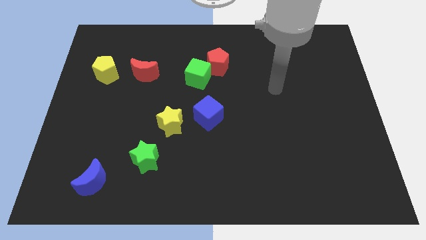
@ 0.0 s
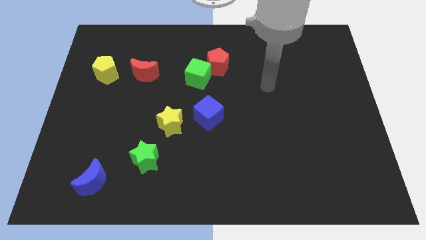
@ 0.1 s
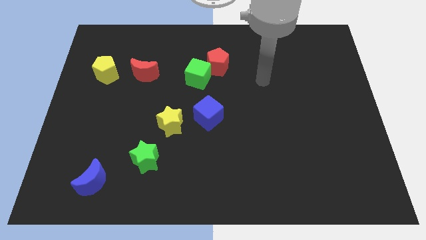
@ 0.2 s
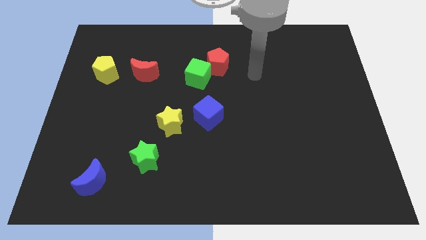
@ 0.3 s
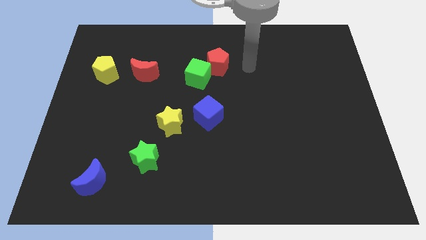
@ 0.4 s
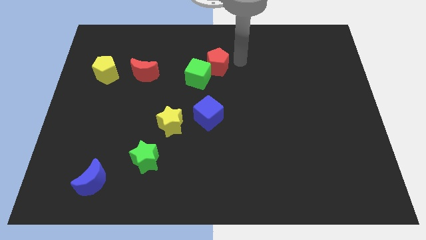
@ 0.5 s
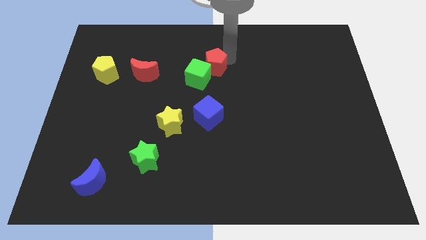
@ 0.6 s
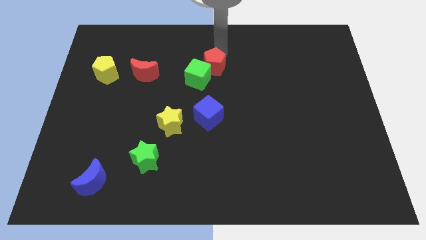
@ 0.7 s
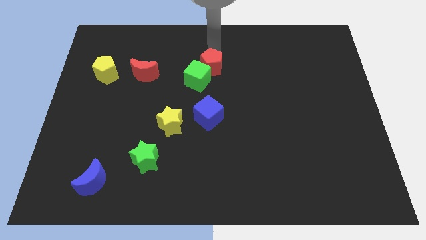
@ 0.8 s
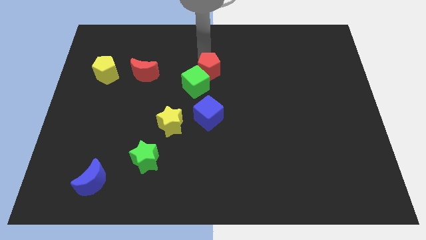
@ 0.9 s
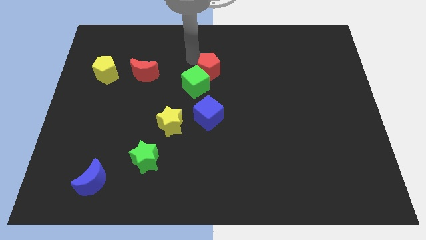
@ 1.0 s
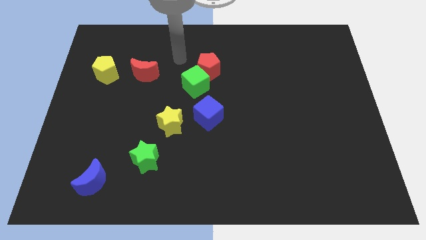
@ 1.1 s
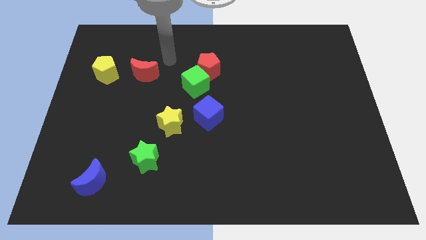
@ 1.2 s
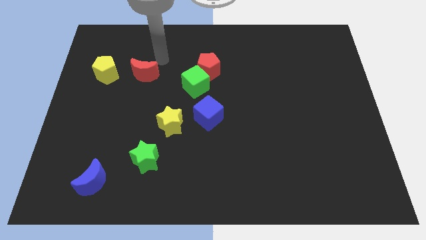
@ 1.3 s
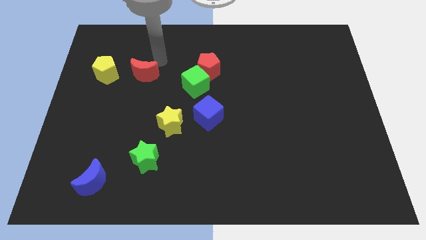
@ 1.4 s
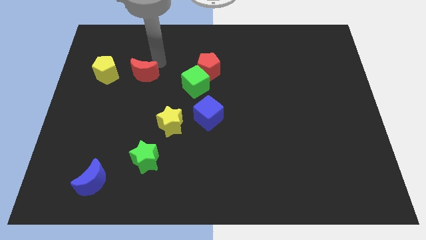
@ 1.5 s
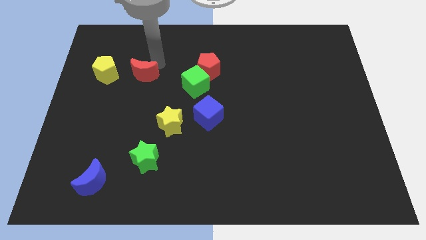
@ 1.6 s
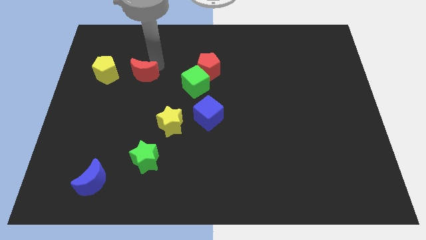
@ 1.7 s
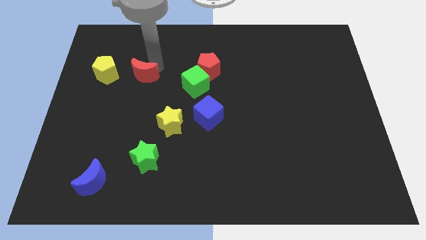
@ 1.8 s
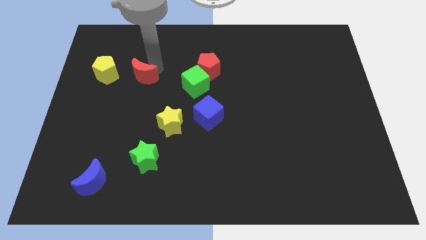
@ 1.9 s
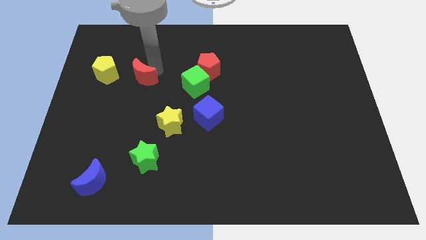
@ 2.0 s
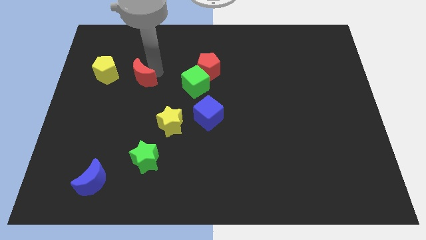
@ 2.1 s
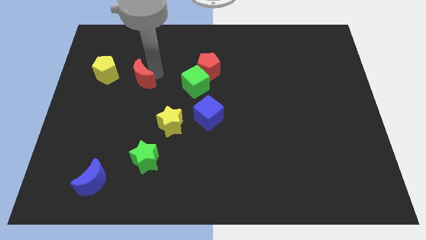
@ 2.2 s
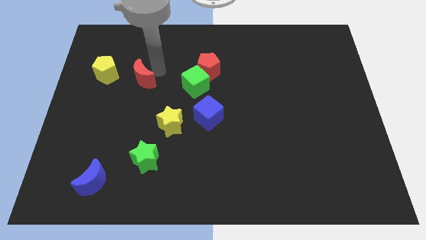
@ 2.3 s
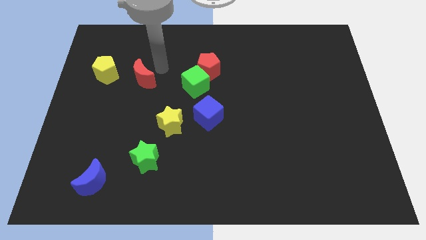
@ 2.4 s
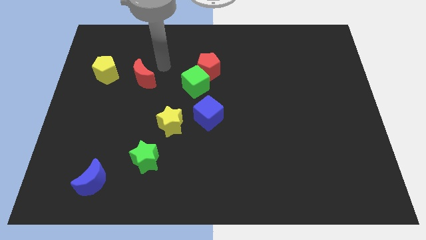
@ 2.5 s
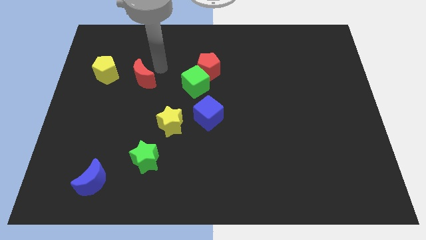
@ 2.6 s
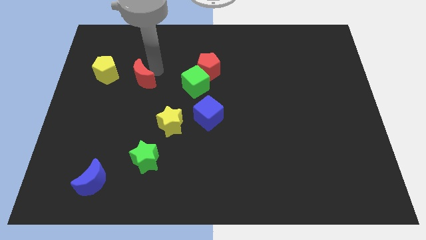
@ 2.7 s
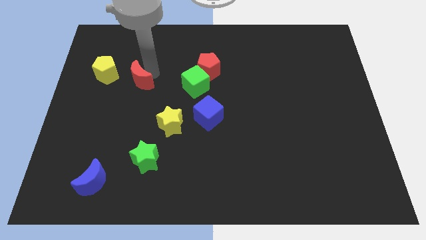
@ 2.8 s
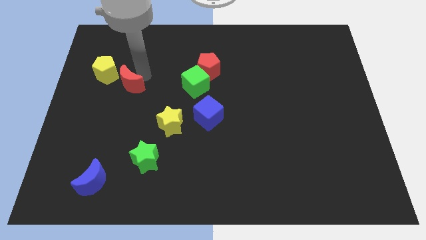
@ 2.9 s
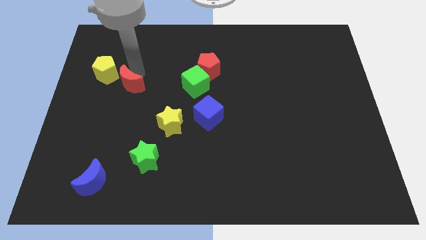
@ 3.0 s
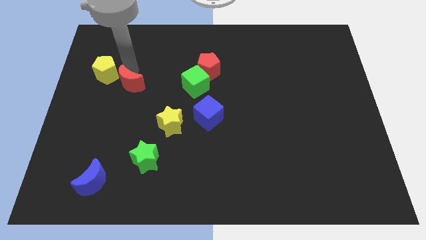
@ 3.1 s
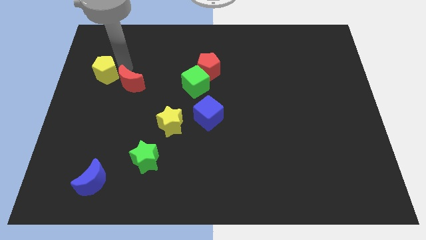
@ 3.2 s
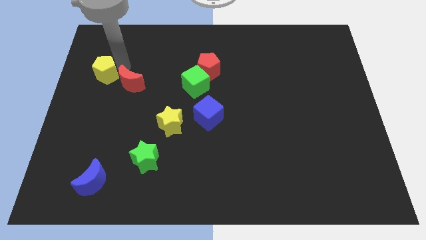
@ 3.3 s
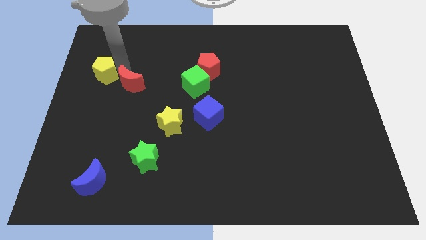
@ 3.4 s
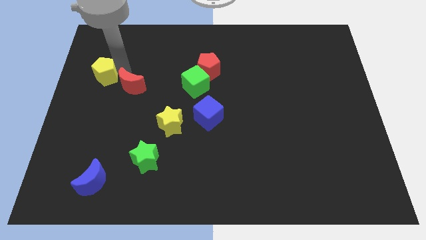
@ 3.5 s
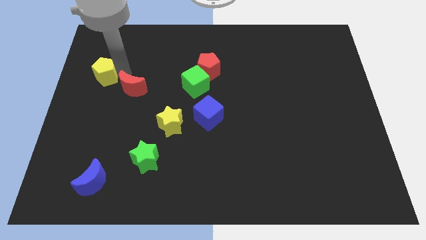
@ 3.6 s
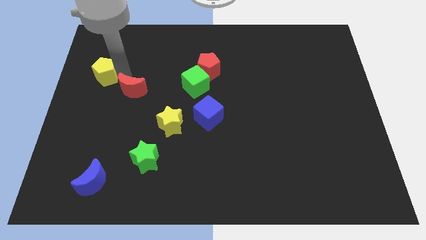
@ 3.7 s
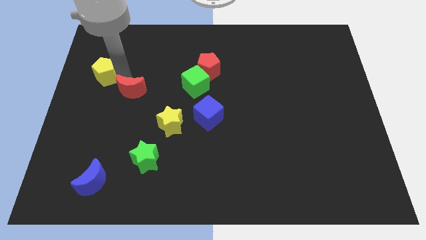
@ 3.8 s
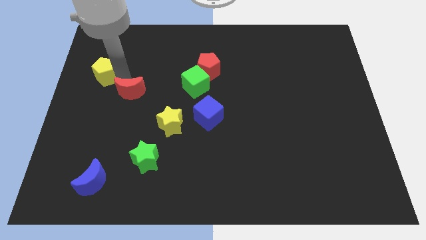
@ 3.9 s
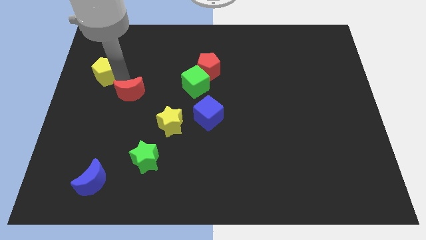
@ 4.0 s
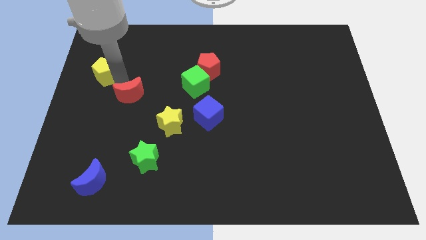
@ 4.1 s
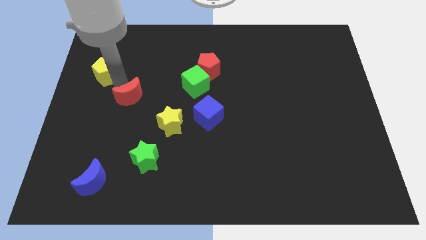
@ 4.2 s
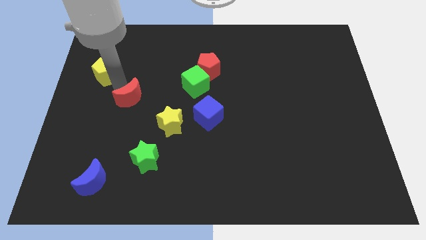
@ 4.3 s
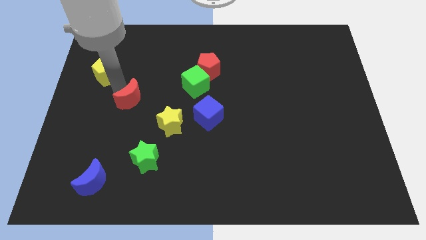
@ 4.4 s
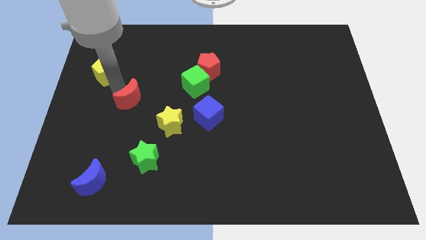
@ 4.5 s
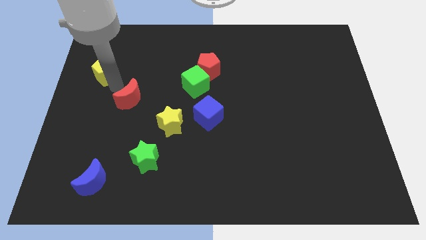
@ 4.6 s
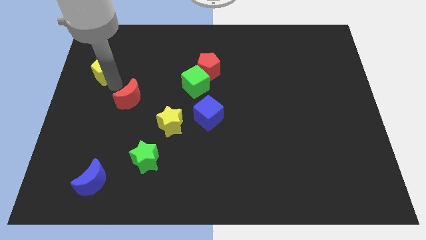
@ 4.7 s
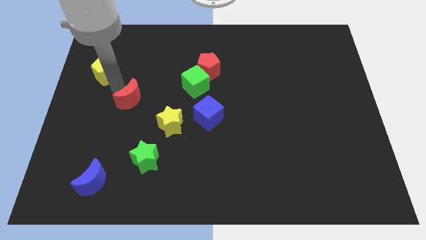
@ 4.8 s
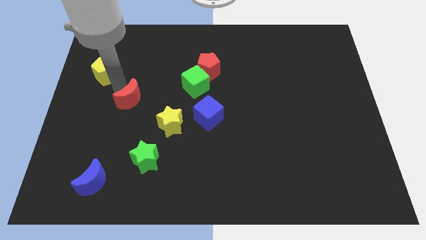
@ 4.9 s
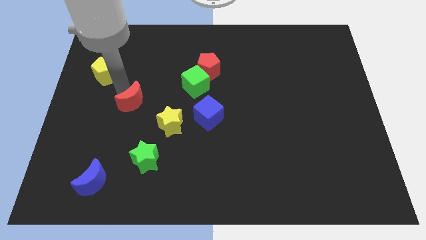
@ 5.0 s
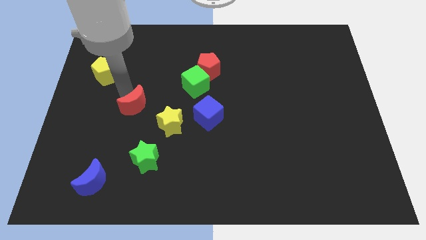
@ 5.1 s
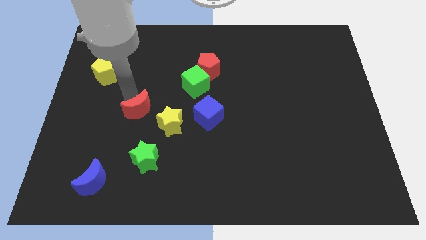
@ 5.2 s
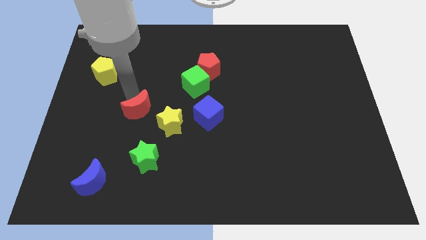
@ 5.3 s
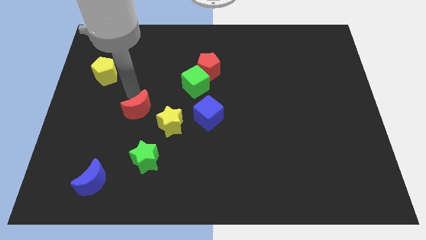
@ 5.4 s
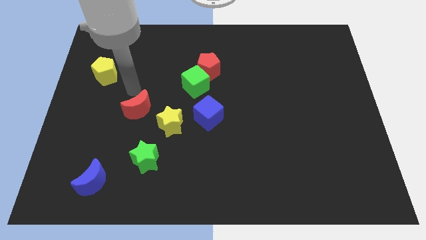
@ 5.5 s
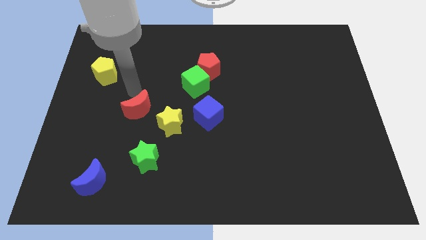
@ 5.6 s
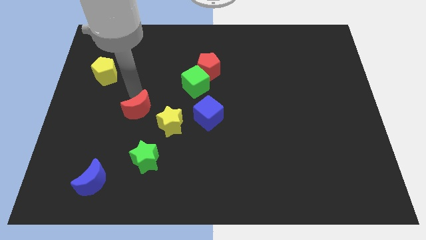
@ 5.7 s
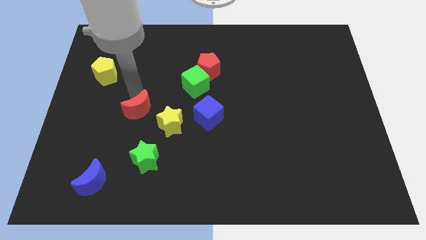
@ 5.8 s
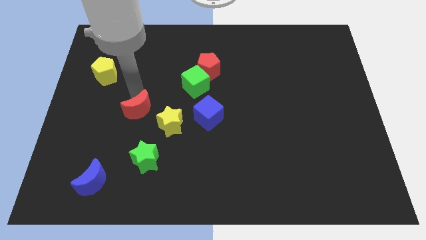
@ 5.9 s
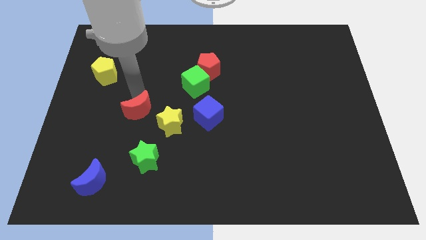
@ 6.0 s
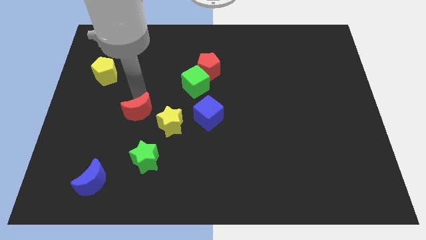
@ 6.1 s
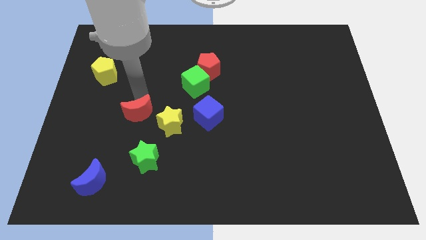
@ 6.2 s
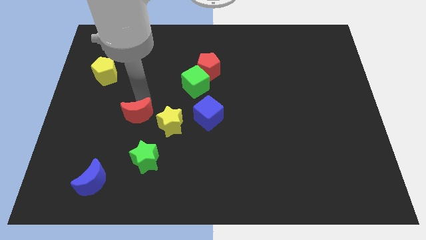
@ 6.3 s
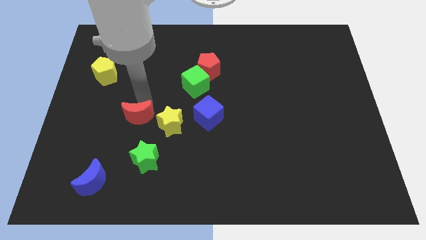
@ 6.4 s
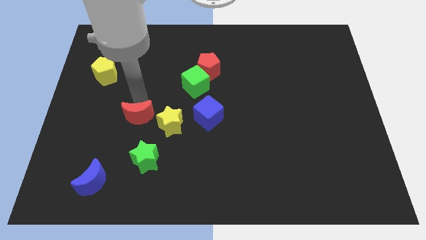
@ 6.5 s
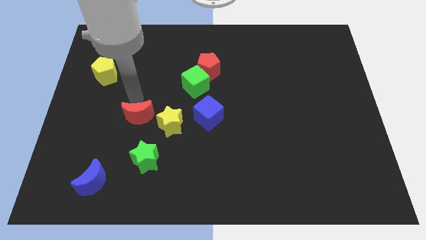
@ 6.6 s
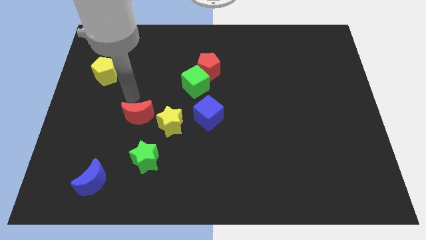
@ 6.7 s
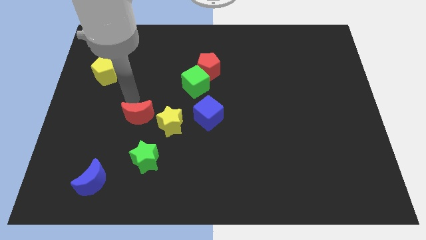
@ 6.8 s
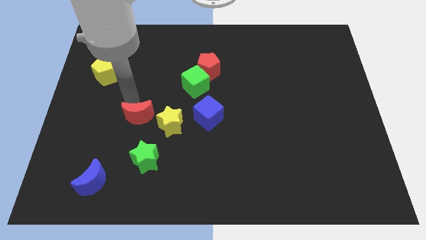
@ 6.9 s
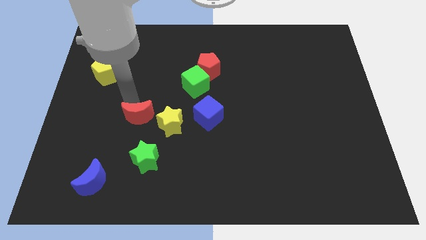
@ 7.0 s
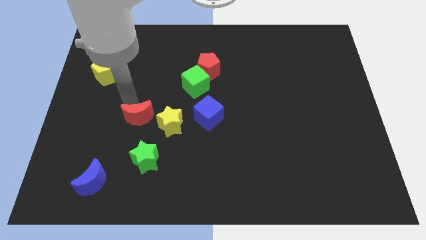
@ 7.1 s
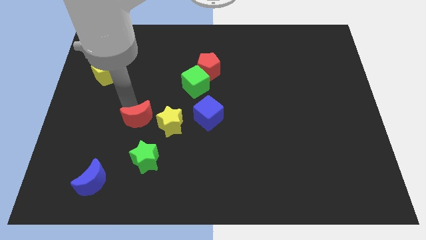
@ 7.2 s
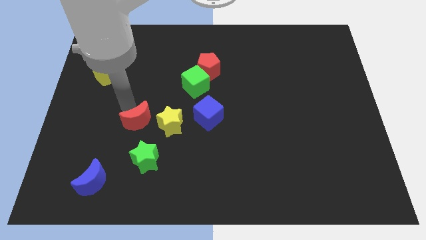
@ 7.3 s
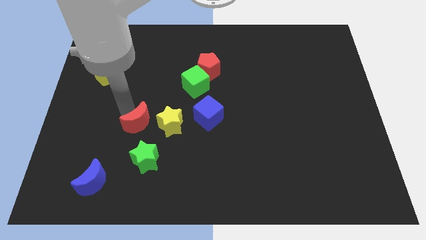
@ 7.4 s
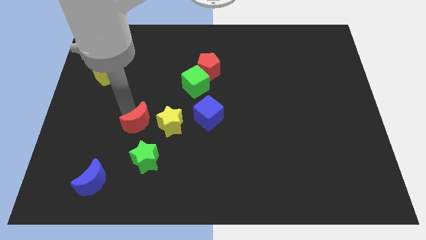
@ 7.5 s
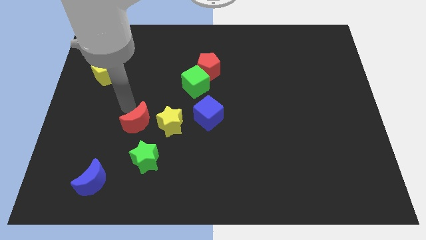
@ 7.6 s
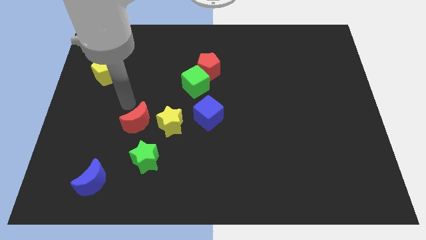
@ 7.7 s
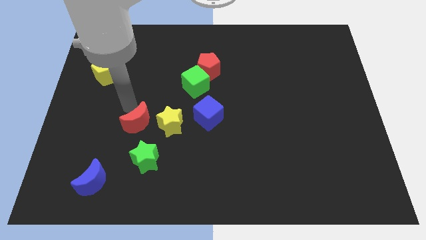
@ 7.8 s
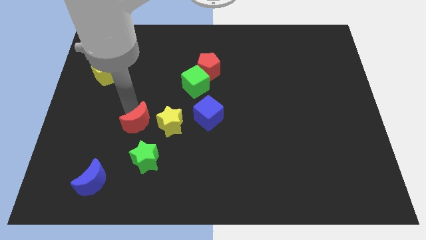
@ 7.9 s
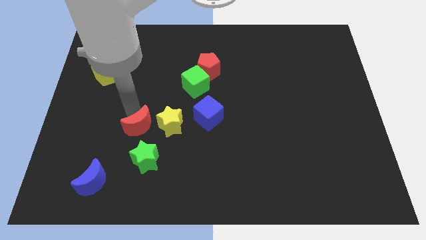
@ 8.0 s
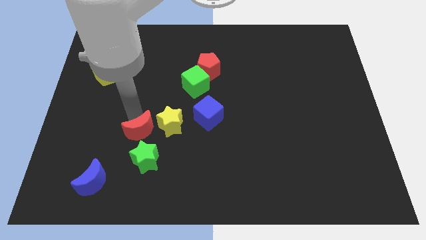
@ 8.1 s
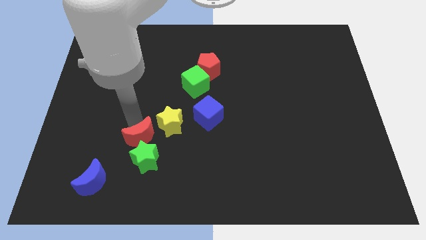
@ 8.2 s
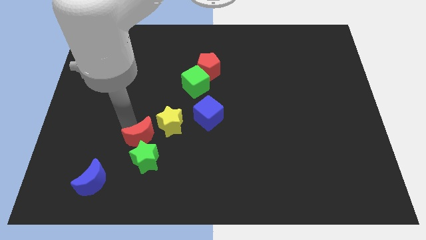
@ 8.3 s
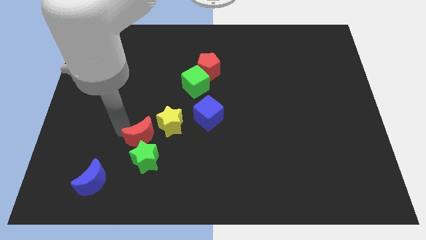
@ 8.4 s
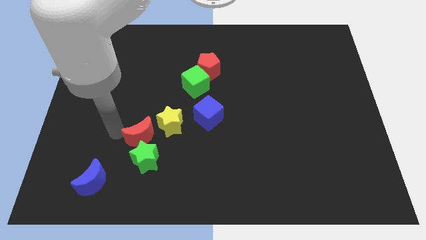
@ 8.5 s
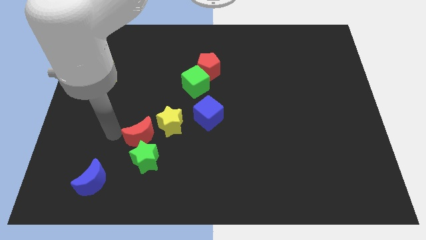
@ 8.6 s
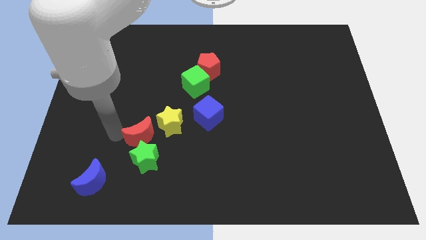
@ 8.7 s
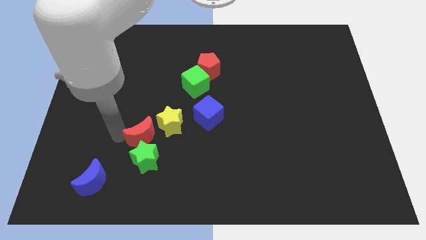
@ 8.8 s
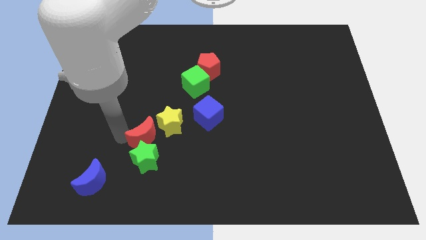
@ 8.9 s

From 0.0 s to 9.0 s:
move the red moon diagonally up and to the right of the green star
